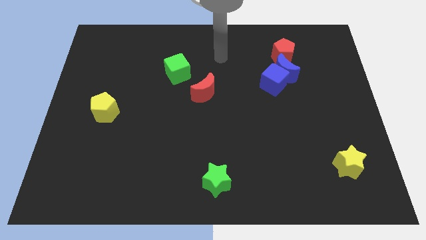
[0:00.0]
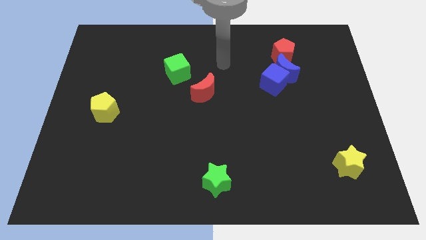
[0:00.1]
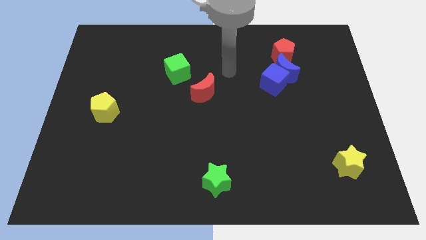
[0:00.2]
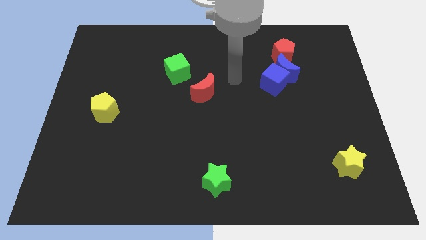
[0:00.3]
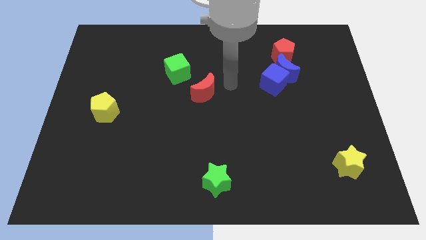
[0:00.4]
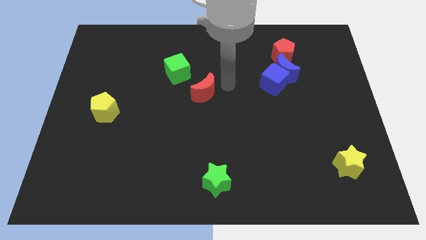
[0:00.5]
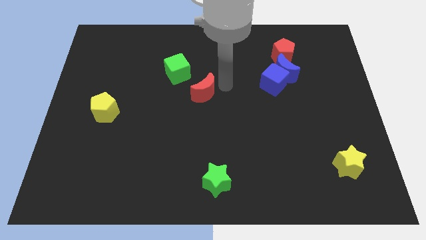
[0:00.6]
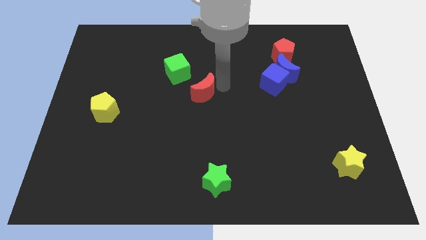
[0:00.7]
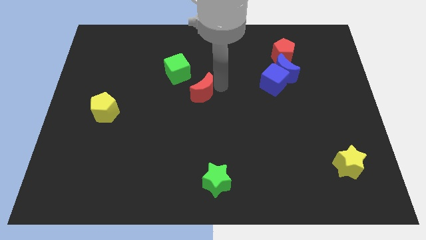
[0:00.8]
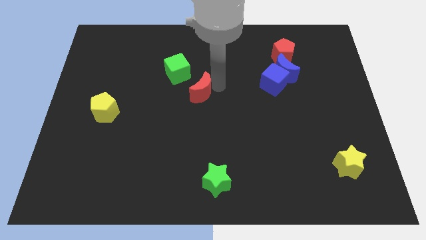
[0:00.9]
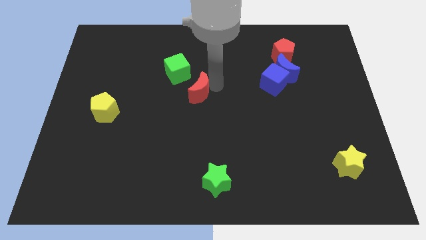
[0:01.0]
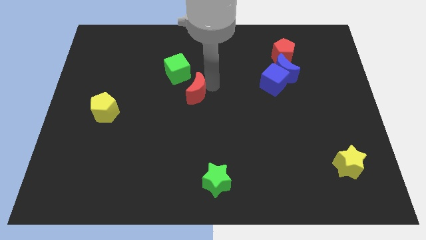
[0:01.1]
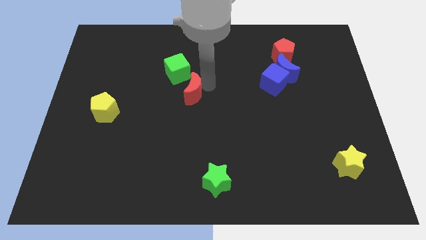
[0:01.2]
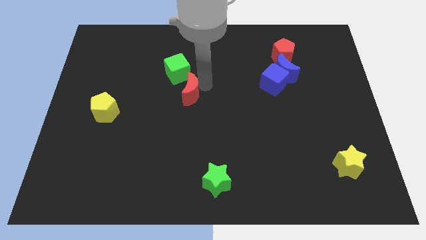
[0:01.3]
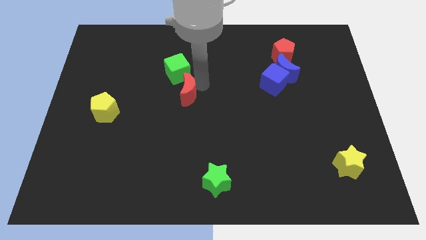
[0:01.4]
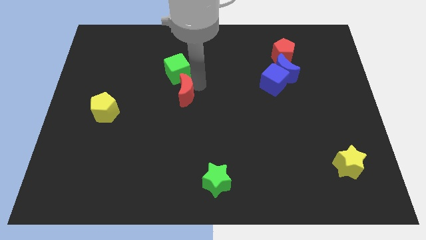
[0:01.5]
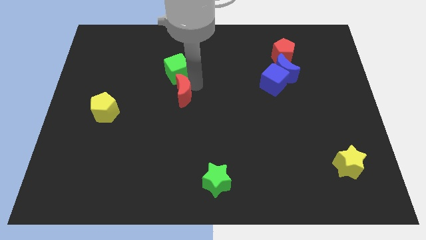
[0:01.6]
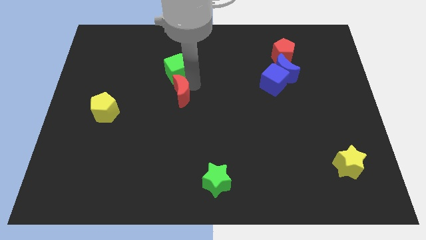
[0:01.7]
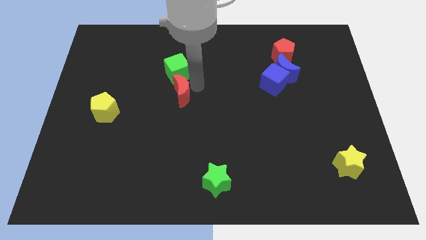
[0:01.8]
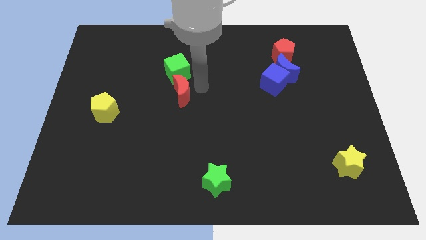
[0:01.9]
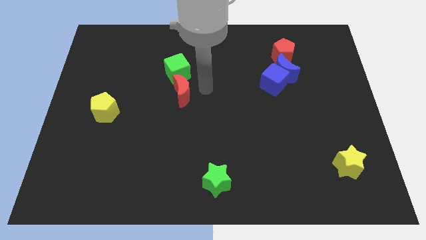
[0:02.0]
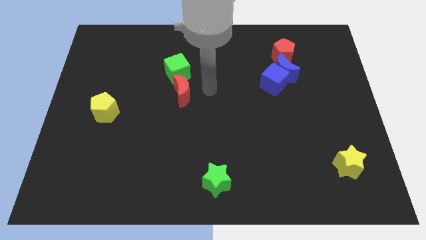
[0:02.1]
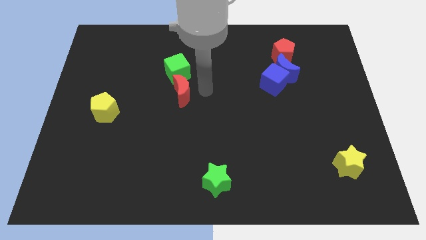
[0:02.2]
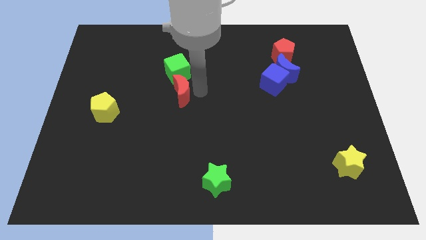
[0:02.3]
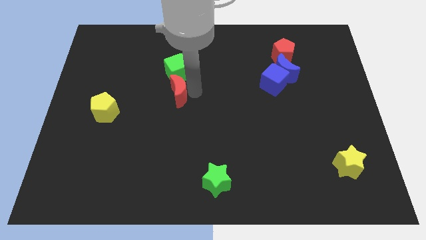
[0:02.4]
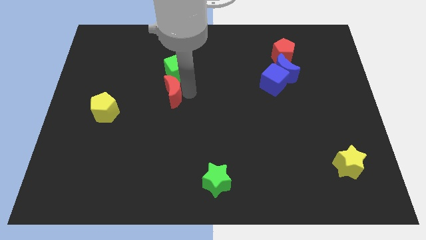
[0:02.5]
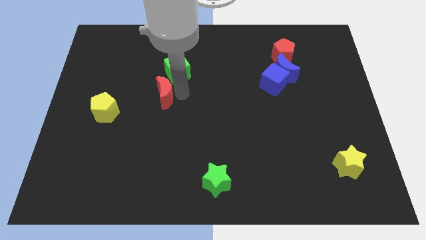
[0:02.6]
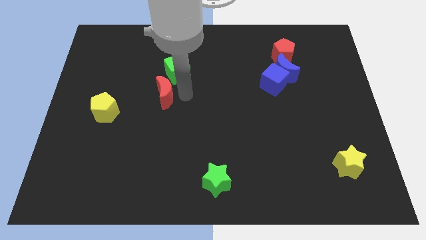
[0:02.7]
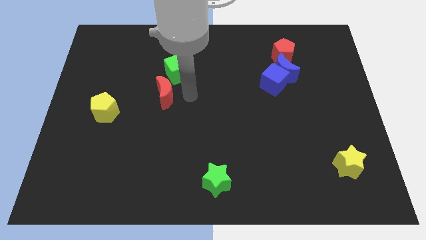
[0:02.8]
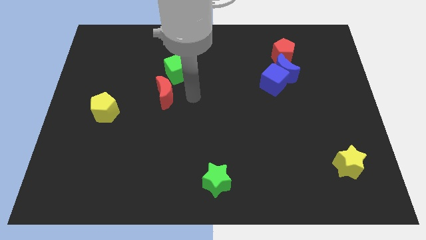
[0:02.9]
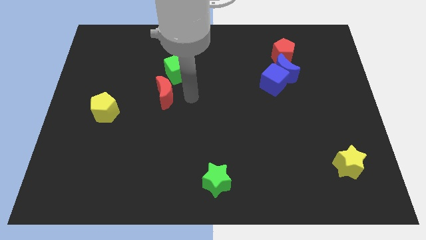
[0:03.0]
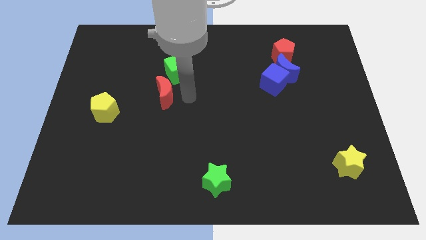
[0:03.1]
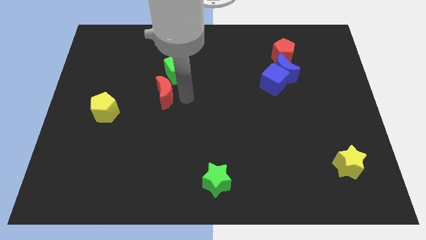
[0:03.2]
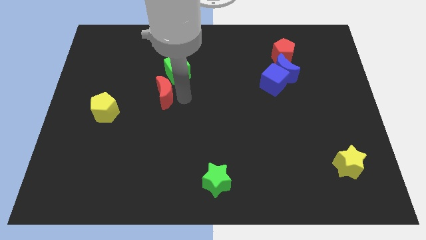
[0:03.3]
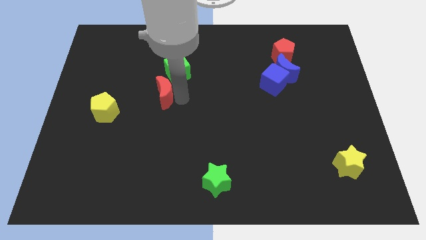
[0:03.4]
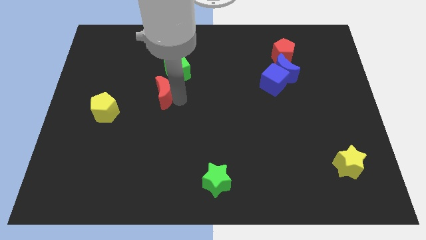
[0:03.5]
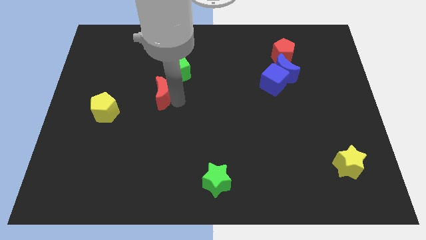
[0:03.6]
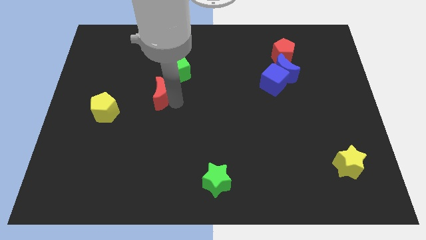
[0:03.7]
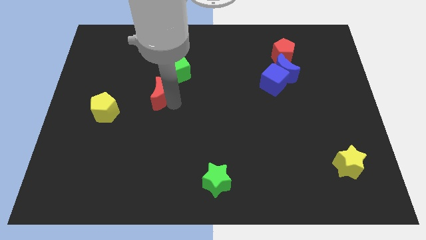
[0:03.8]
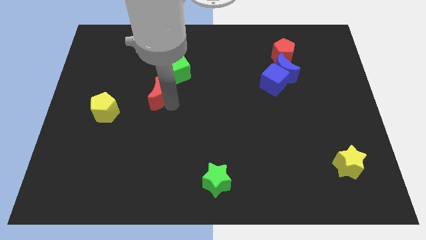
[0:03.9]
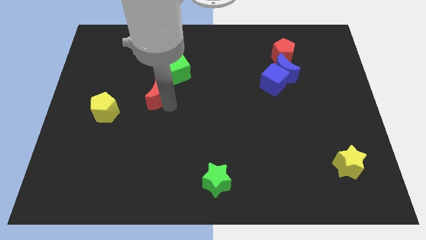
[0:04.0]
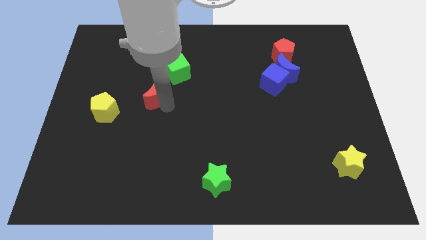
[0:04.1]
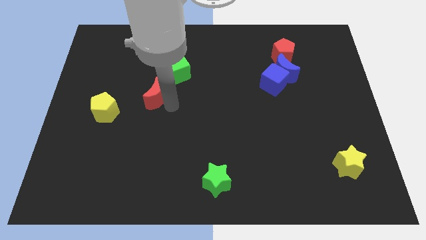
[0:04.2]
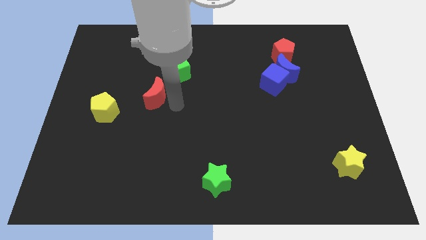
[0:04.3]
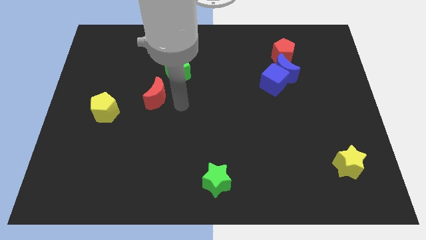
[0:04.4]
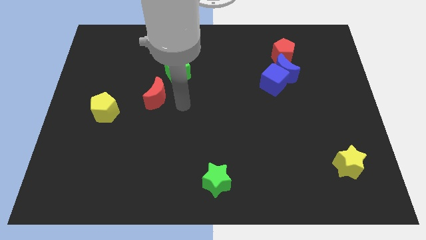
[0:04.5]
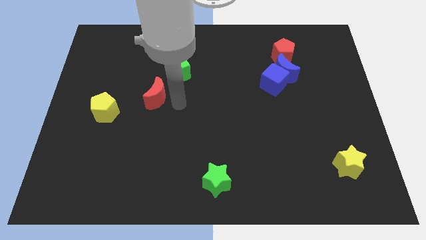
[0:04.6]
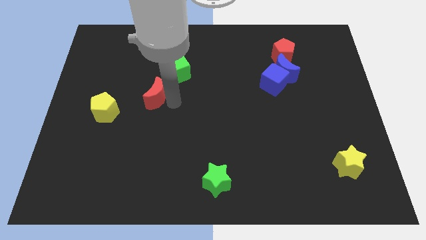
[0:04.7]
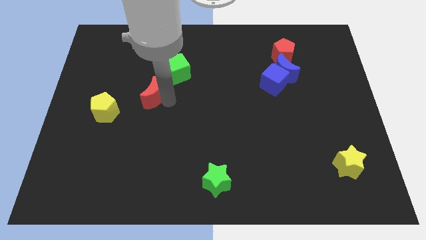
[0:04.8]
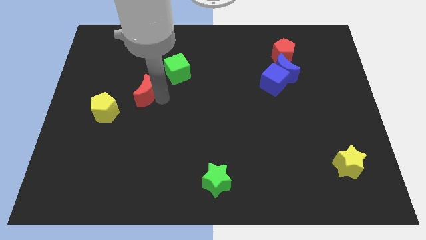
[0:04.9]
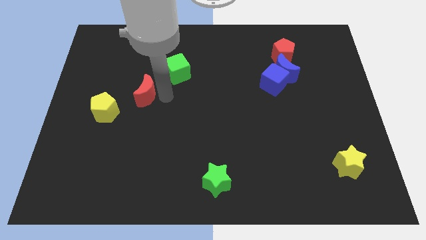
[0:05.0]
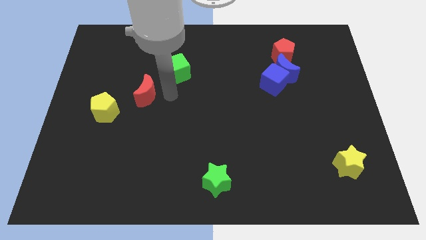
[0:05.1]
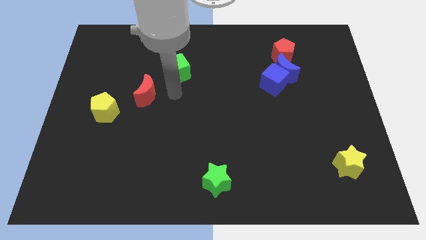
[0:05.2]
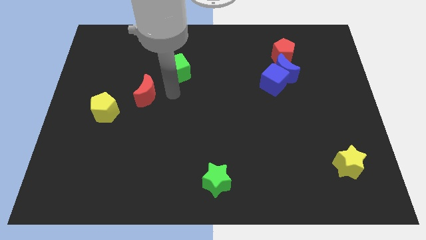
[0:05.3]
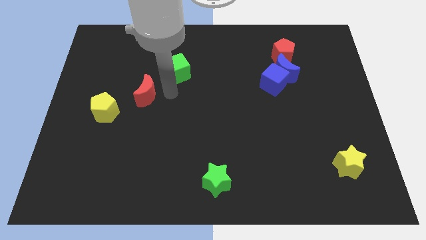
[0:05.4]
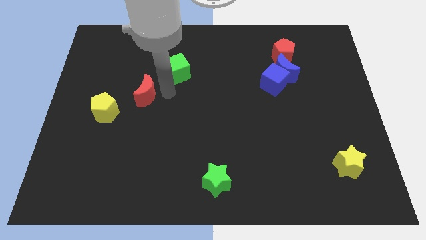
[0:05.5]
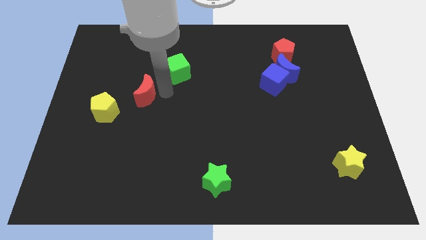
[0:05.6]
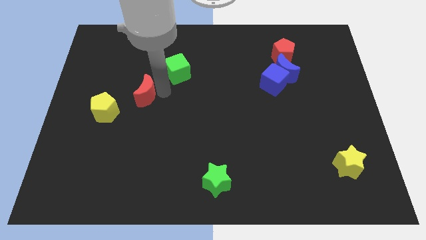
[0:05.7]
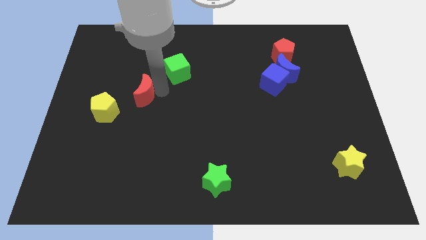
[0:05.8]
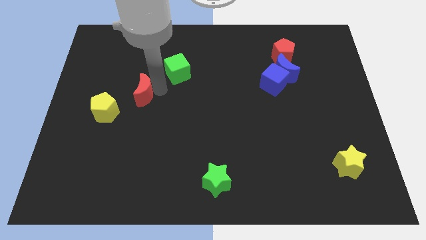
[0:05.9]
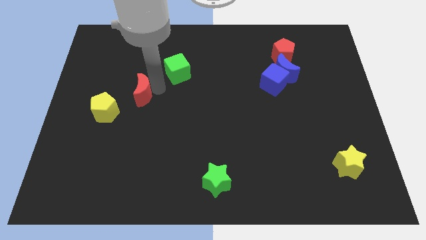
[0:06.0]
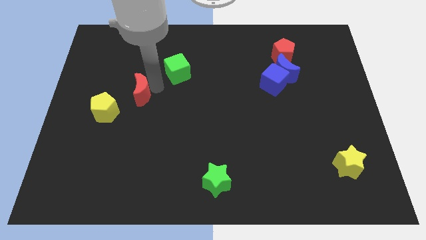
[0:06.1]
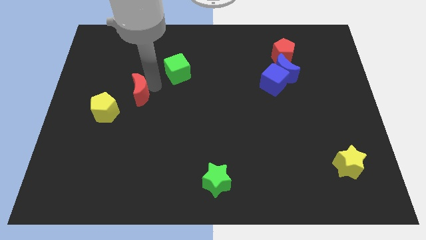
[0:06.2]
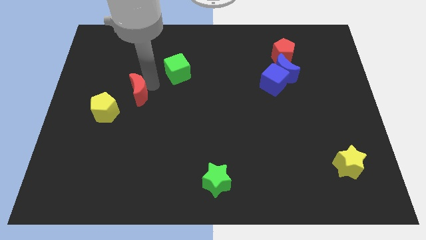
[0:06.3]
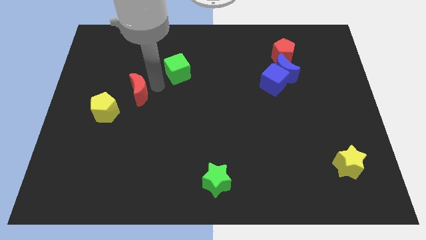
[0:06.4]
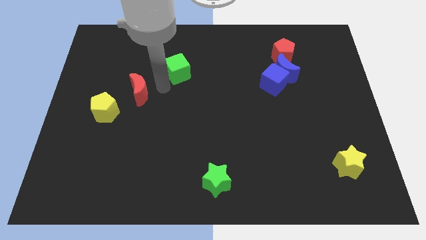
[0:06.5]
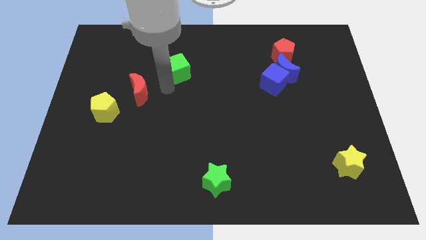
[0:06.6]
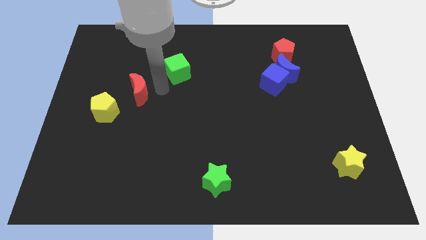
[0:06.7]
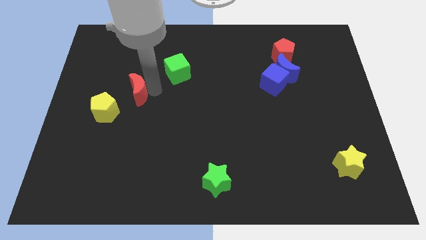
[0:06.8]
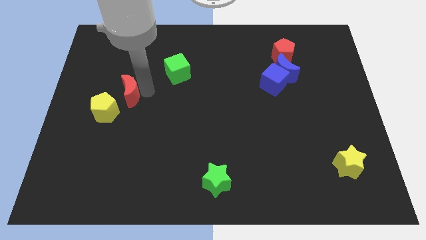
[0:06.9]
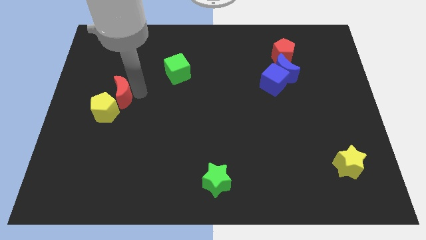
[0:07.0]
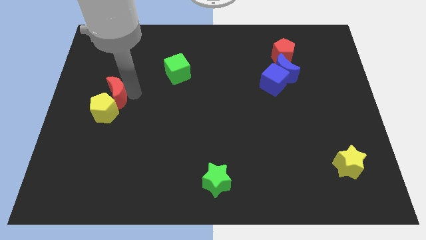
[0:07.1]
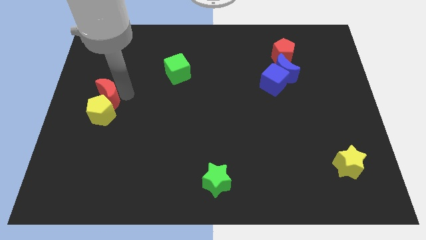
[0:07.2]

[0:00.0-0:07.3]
push the red moon to the left side of the board
